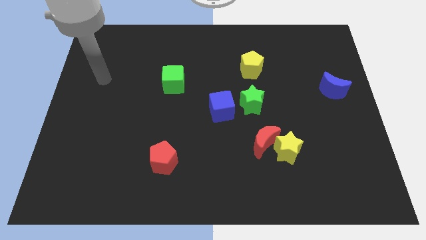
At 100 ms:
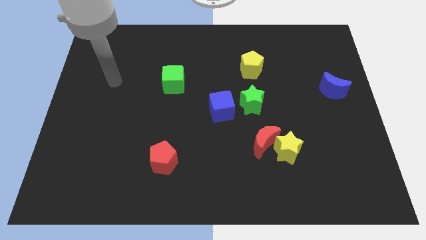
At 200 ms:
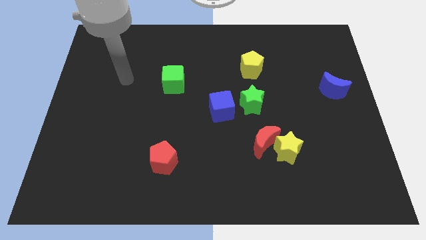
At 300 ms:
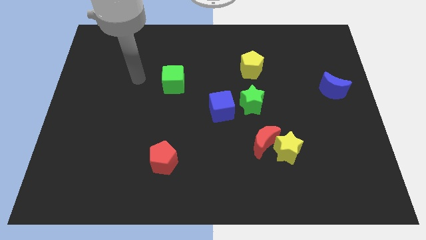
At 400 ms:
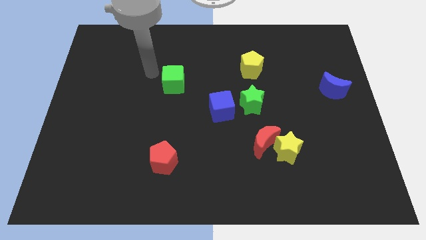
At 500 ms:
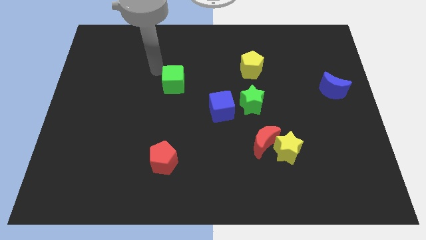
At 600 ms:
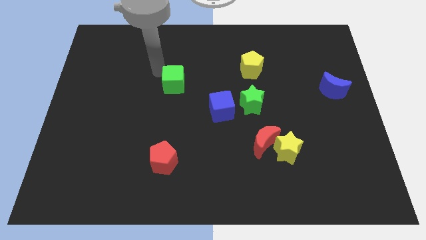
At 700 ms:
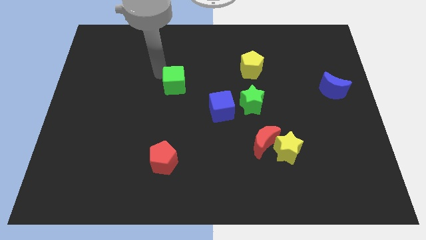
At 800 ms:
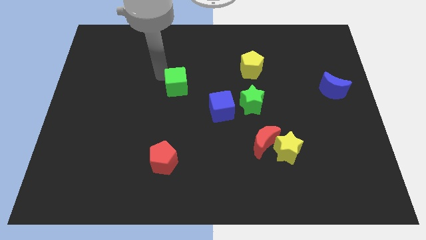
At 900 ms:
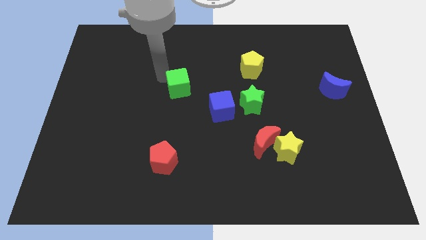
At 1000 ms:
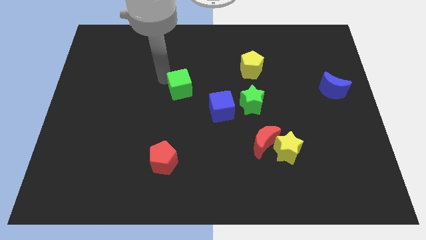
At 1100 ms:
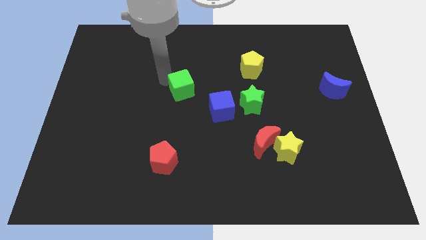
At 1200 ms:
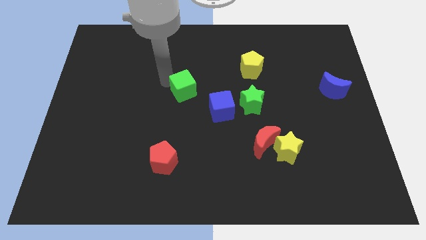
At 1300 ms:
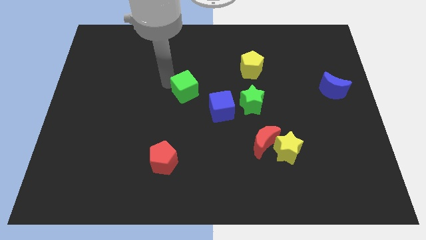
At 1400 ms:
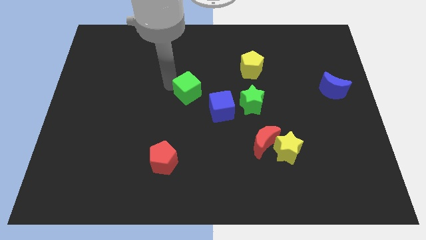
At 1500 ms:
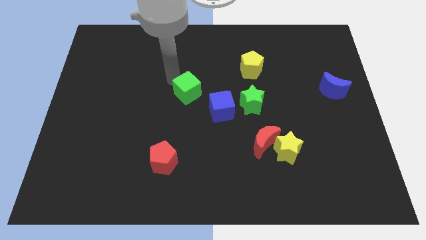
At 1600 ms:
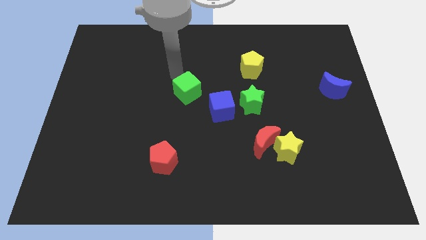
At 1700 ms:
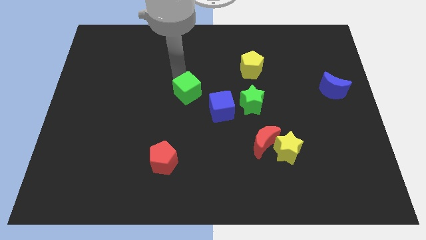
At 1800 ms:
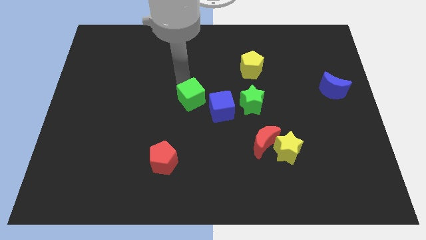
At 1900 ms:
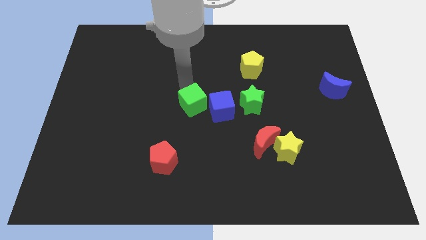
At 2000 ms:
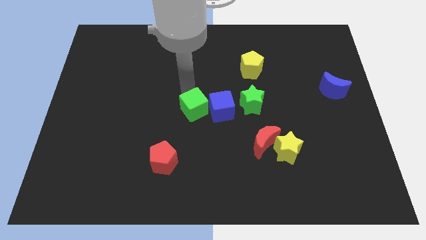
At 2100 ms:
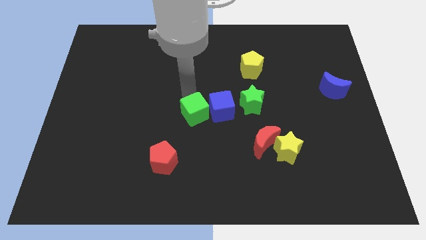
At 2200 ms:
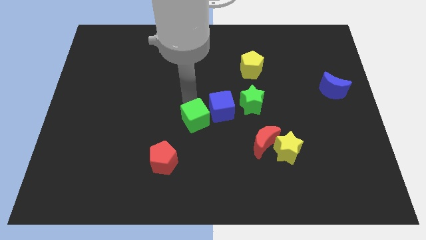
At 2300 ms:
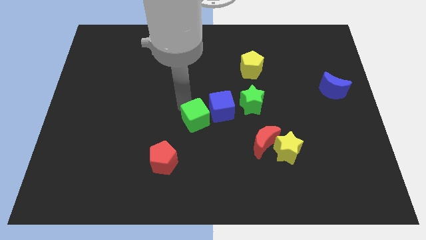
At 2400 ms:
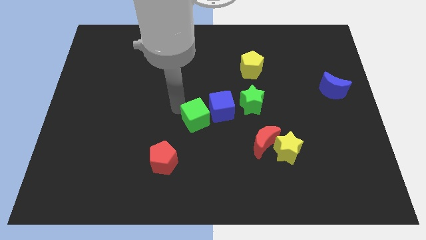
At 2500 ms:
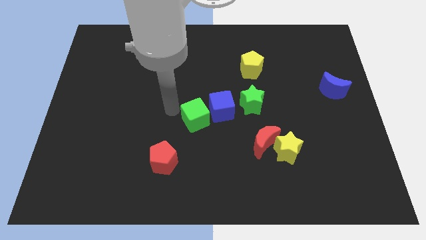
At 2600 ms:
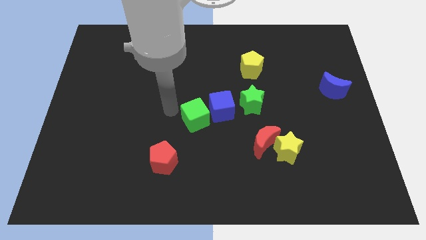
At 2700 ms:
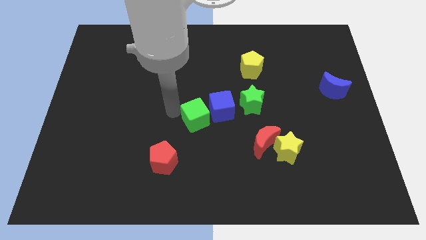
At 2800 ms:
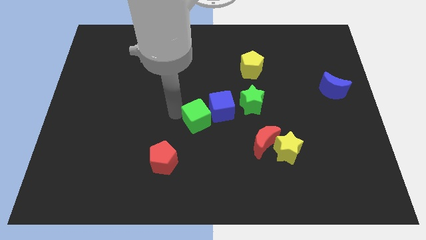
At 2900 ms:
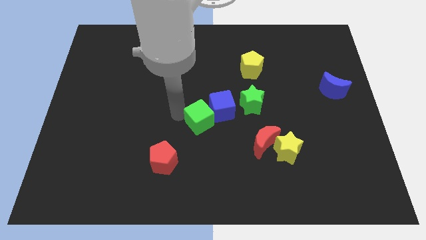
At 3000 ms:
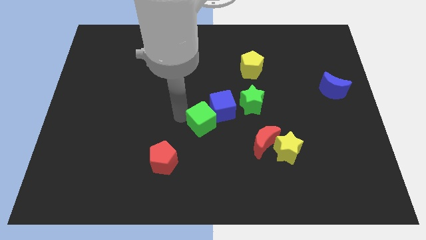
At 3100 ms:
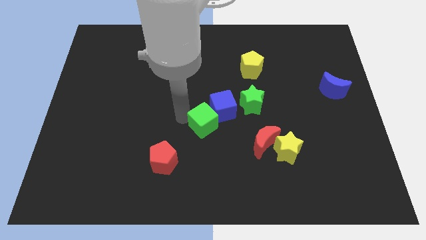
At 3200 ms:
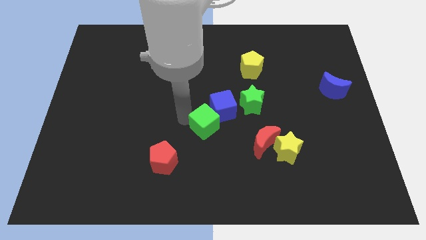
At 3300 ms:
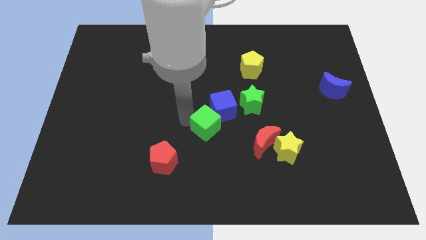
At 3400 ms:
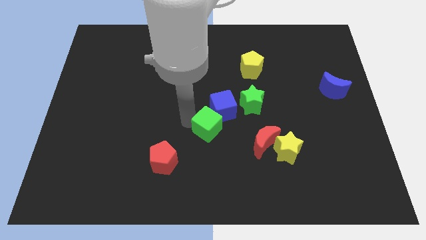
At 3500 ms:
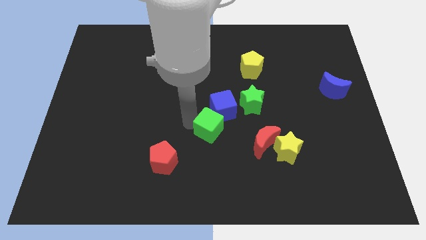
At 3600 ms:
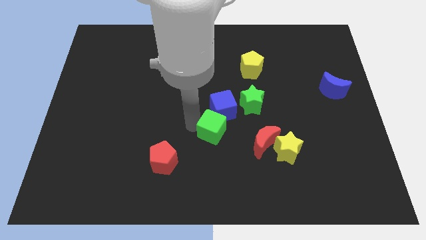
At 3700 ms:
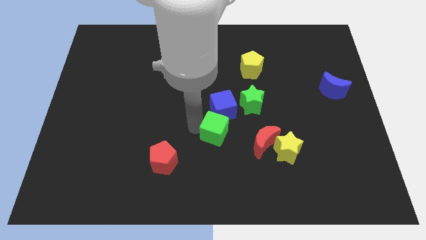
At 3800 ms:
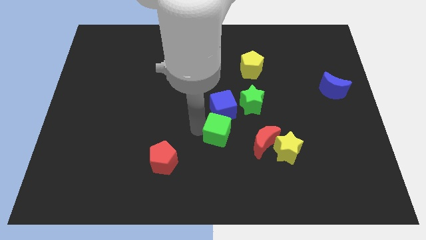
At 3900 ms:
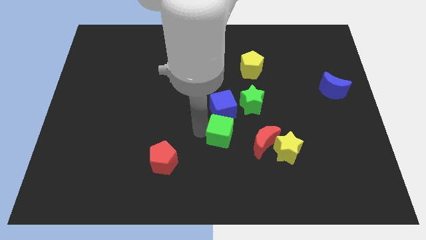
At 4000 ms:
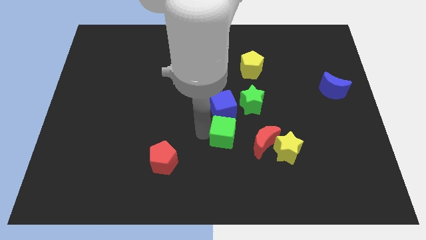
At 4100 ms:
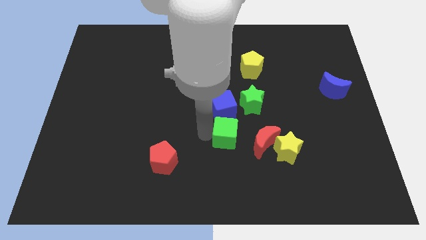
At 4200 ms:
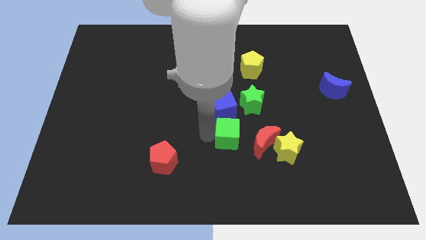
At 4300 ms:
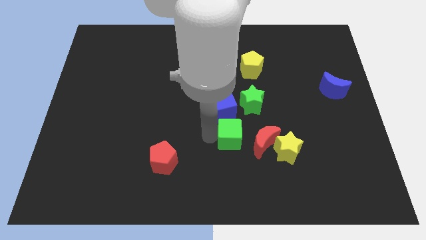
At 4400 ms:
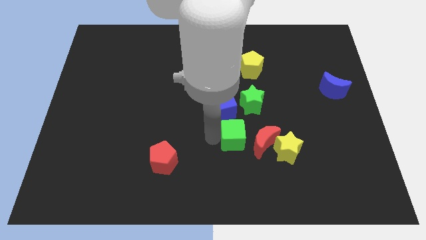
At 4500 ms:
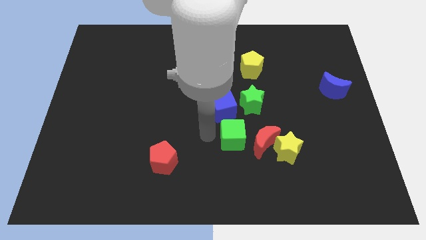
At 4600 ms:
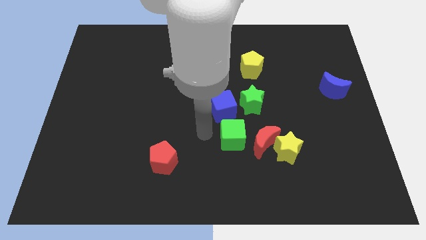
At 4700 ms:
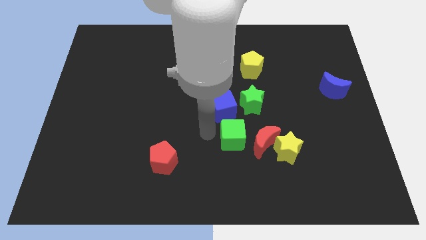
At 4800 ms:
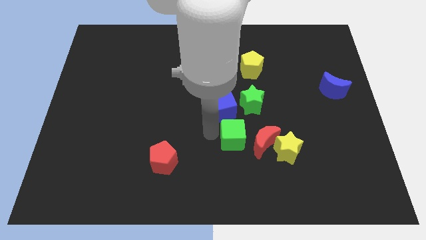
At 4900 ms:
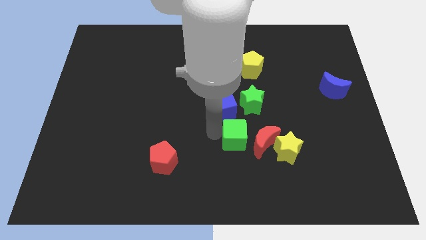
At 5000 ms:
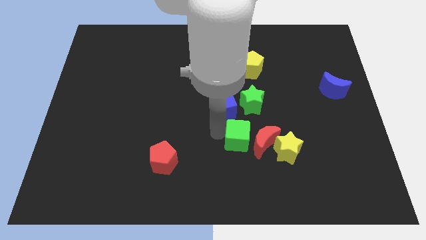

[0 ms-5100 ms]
put the green cube next to the red moon

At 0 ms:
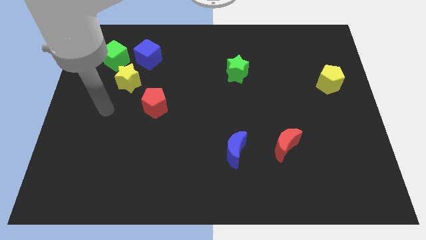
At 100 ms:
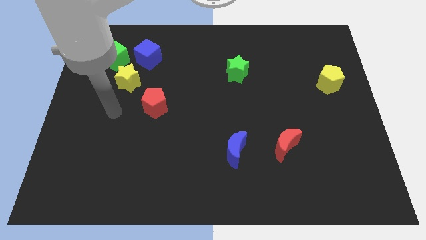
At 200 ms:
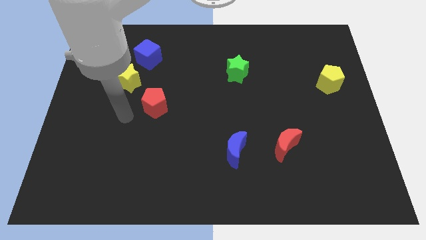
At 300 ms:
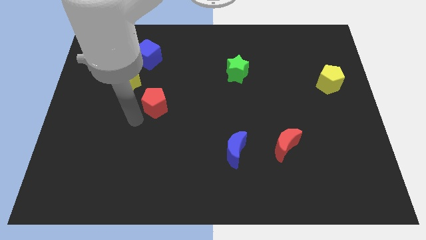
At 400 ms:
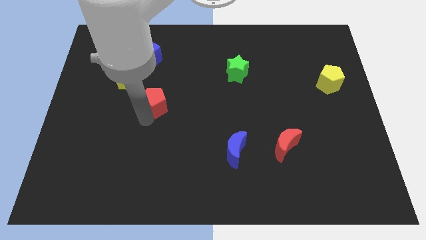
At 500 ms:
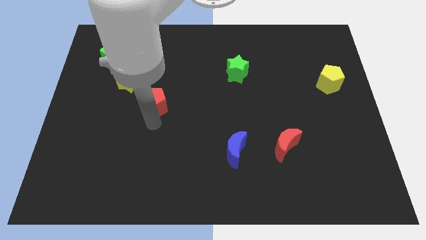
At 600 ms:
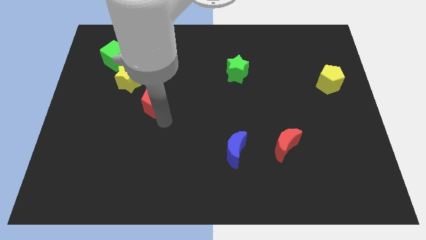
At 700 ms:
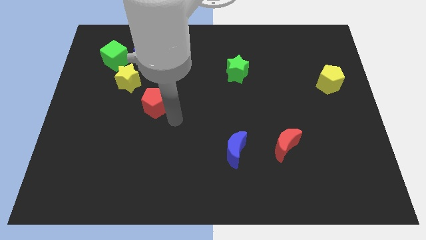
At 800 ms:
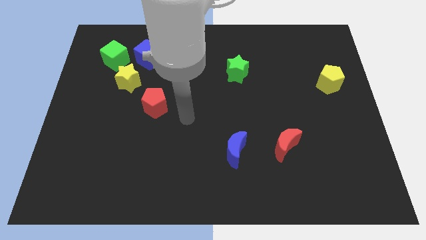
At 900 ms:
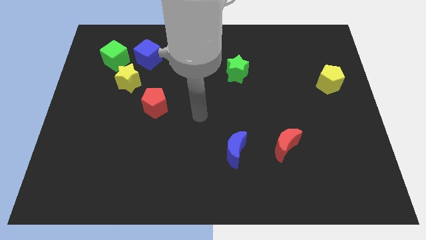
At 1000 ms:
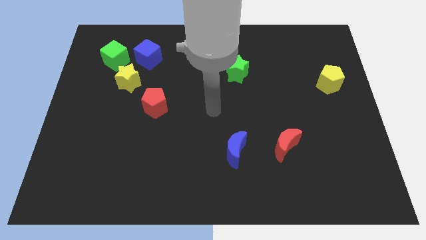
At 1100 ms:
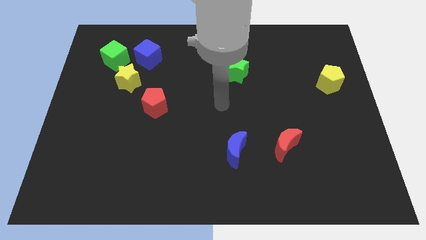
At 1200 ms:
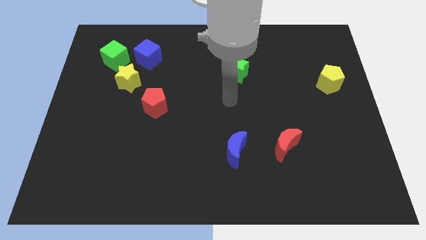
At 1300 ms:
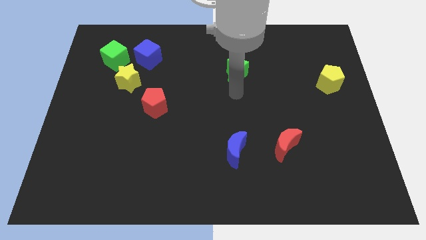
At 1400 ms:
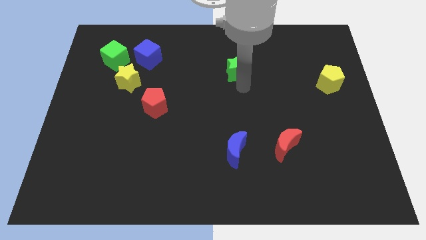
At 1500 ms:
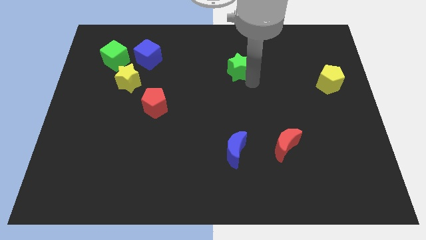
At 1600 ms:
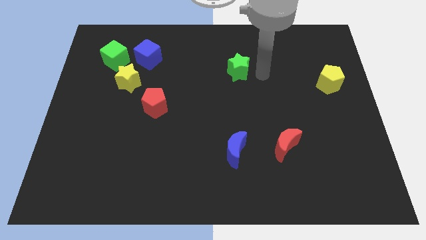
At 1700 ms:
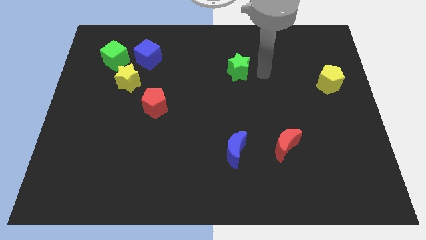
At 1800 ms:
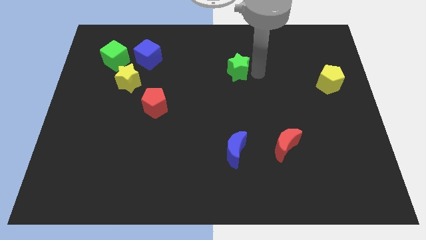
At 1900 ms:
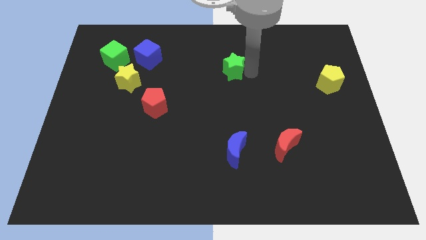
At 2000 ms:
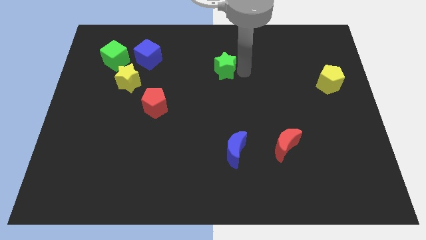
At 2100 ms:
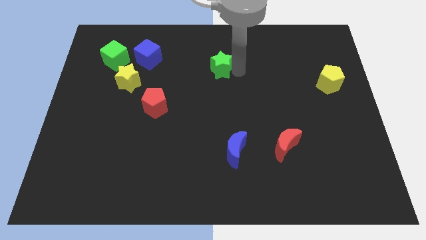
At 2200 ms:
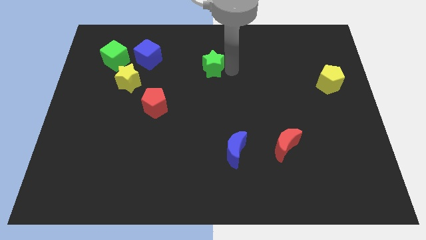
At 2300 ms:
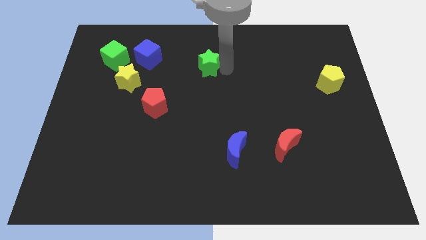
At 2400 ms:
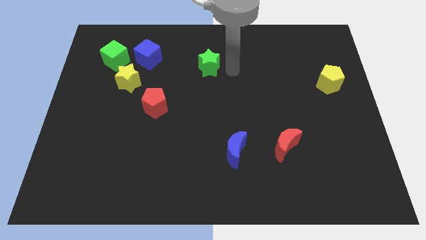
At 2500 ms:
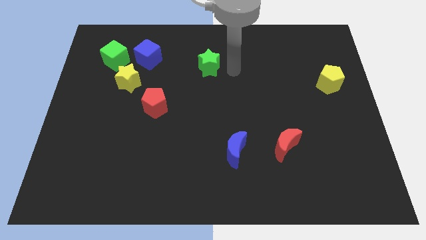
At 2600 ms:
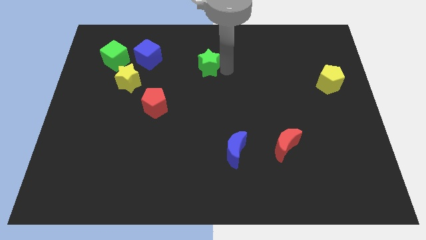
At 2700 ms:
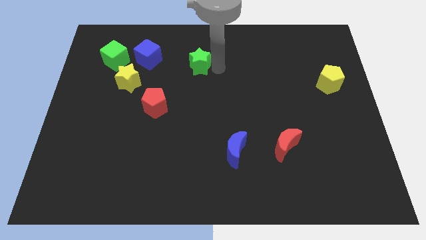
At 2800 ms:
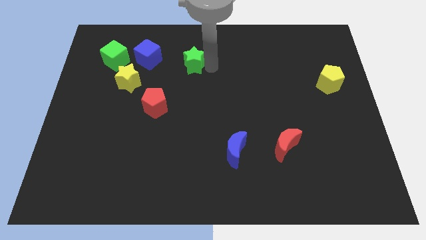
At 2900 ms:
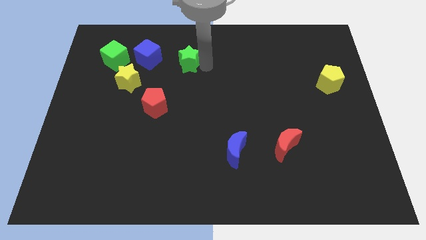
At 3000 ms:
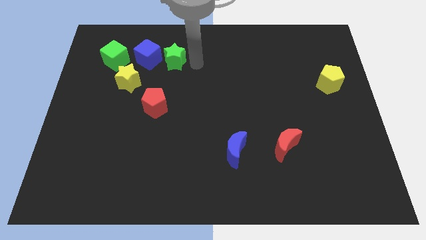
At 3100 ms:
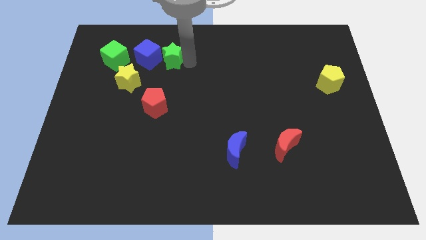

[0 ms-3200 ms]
move the green star close to the blue cube
